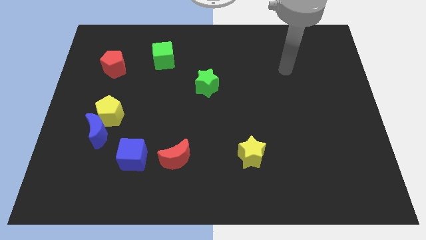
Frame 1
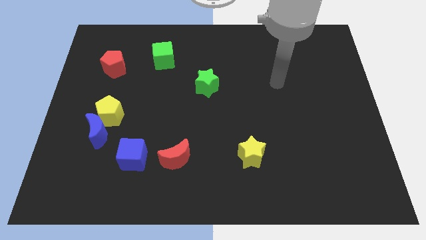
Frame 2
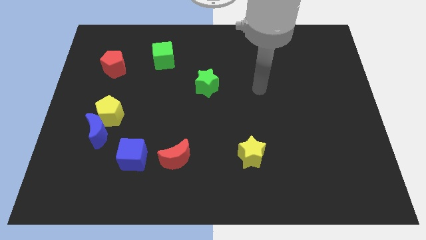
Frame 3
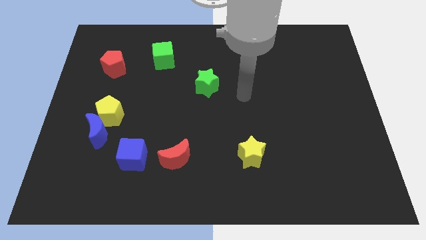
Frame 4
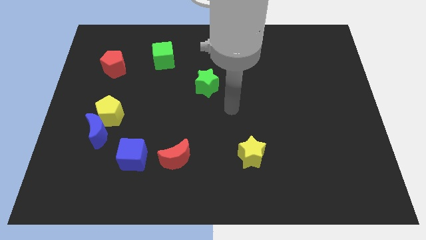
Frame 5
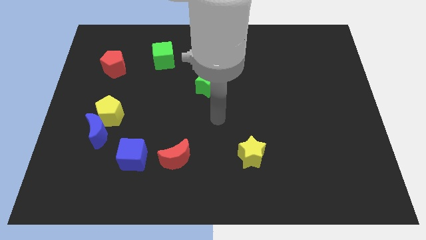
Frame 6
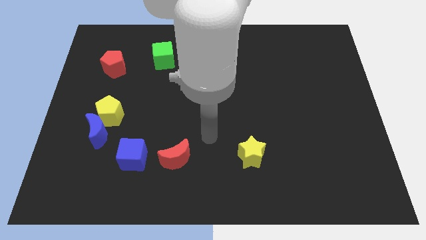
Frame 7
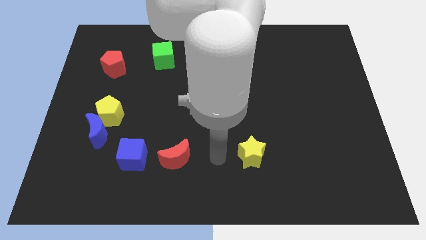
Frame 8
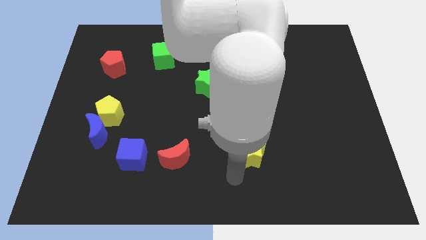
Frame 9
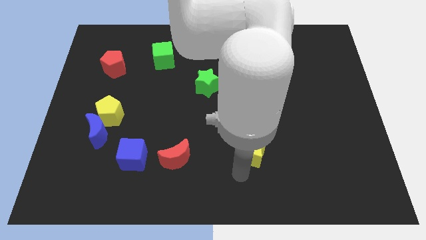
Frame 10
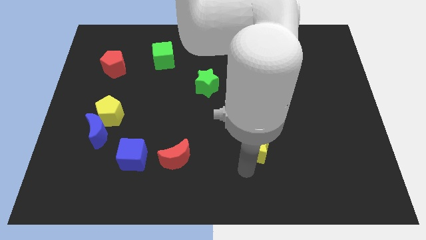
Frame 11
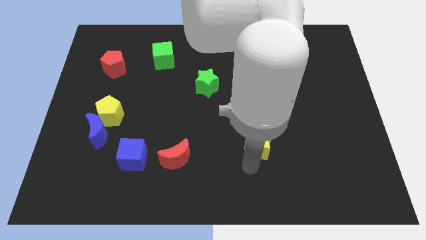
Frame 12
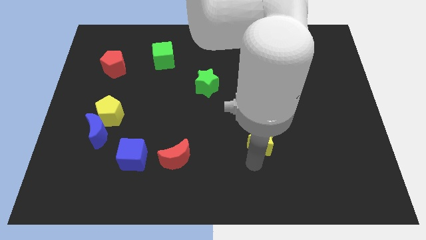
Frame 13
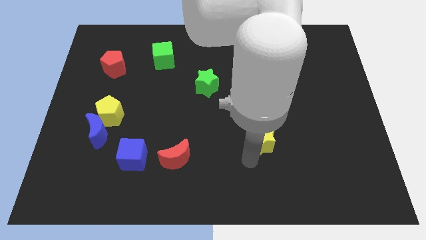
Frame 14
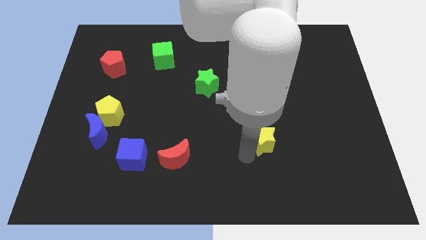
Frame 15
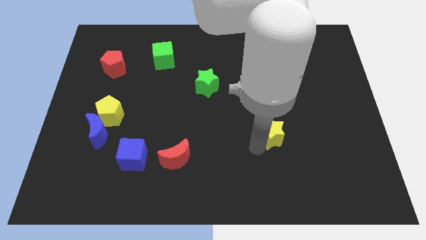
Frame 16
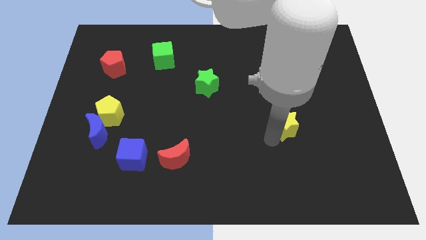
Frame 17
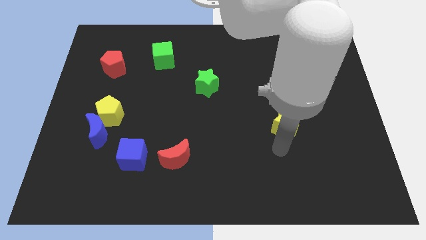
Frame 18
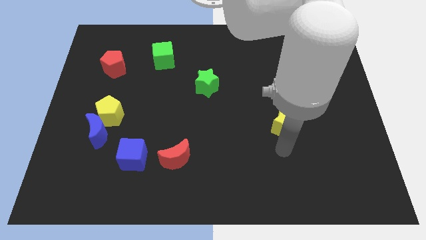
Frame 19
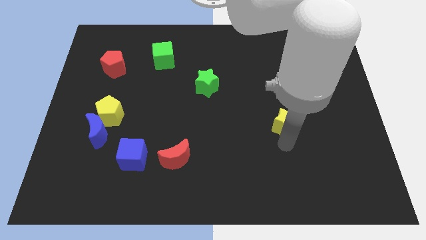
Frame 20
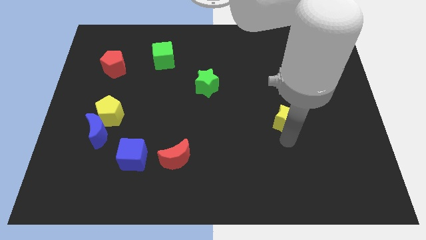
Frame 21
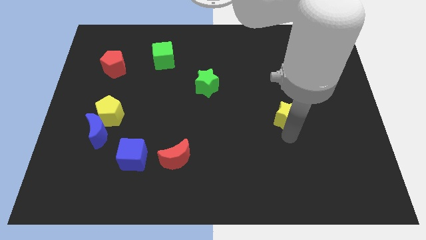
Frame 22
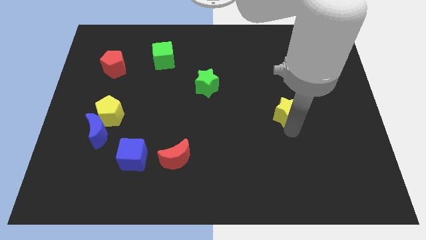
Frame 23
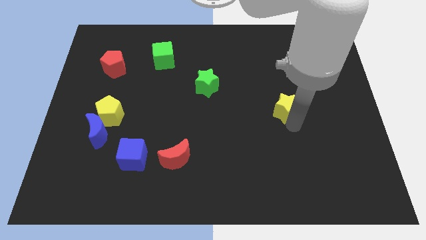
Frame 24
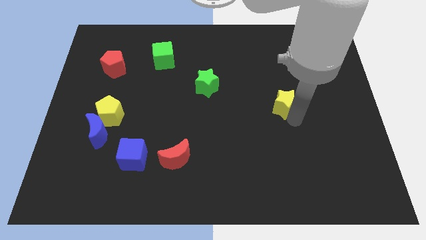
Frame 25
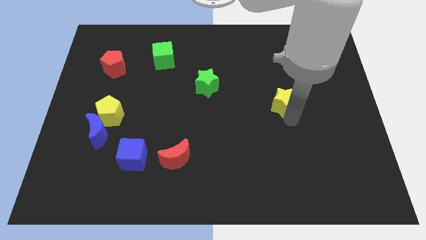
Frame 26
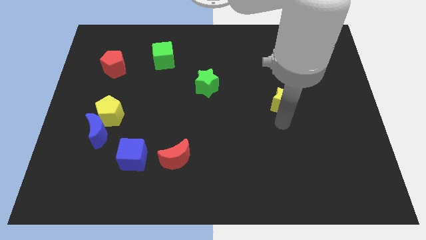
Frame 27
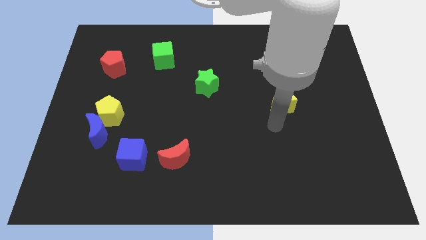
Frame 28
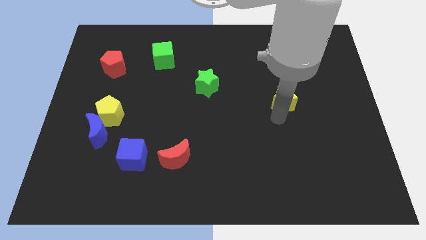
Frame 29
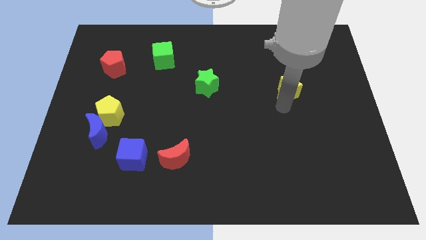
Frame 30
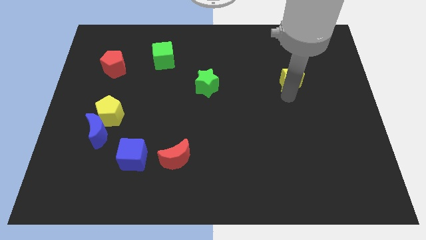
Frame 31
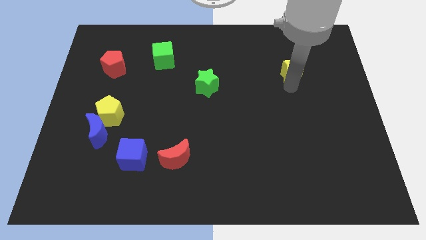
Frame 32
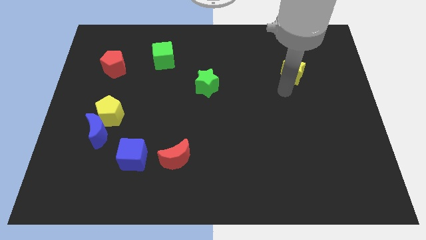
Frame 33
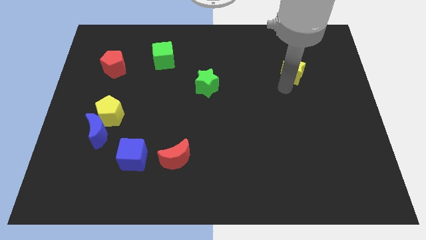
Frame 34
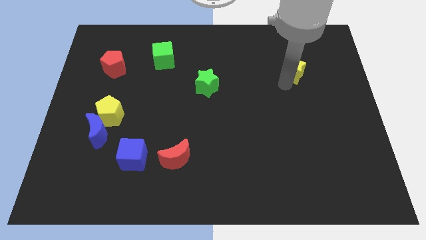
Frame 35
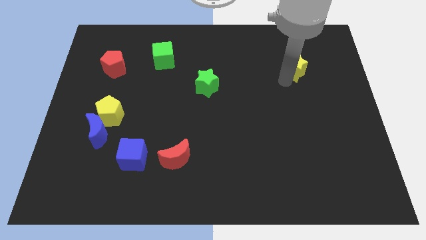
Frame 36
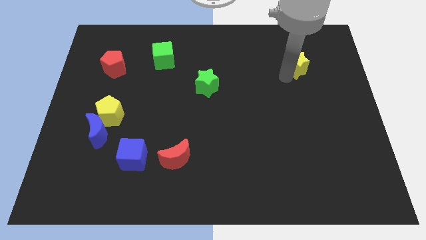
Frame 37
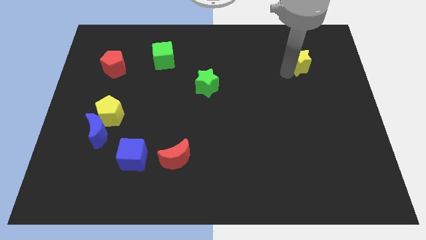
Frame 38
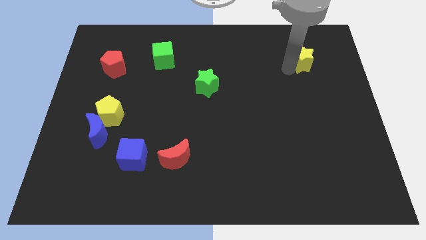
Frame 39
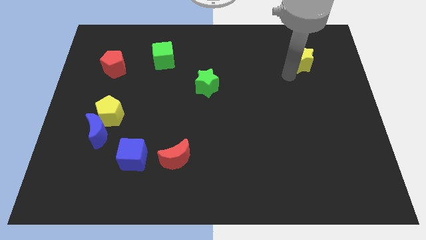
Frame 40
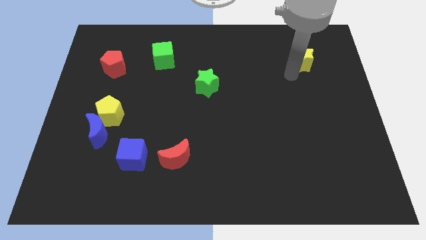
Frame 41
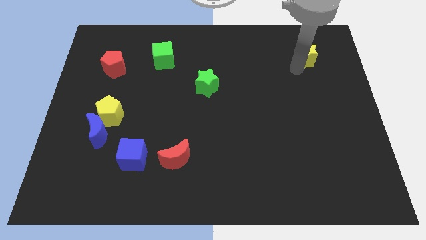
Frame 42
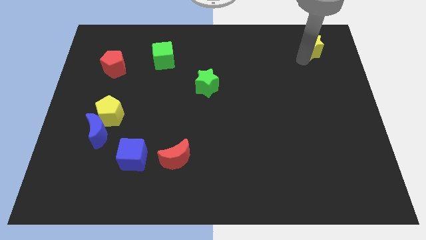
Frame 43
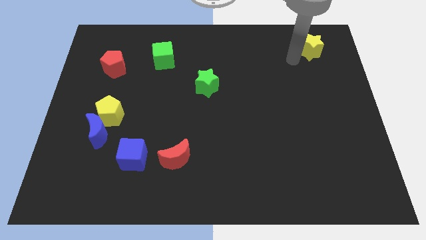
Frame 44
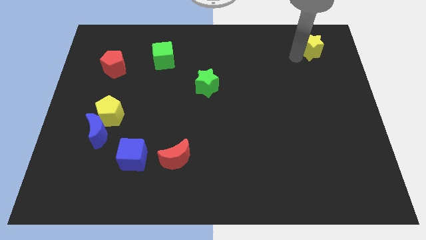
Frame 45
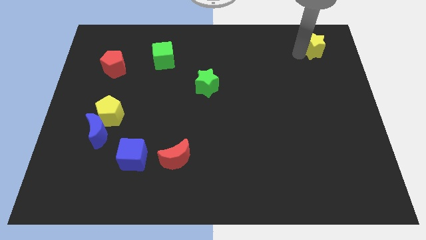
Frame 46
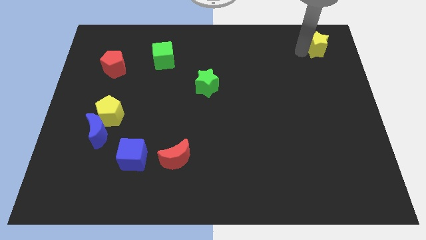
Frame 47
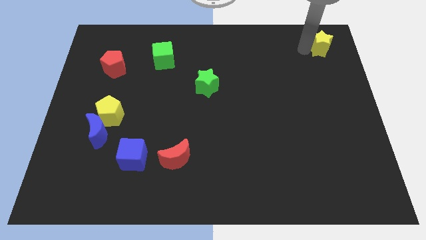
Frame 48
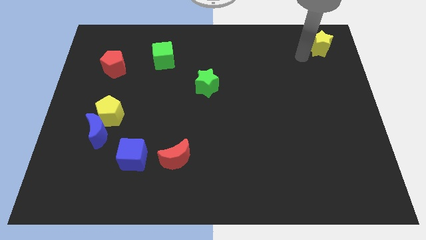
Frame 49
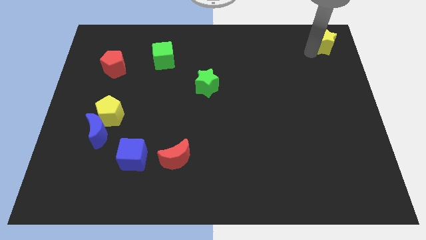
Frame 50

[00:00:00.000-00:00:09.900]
slide the yellow star to the upper right corner

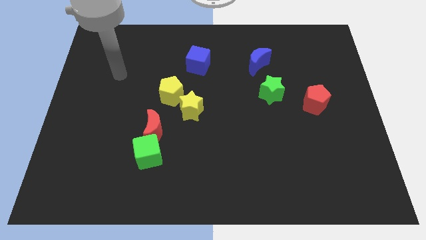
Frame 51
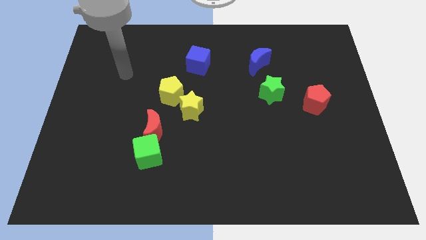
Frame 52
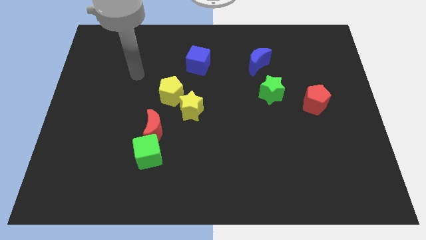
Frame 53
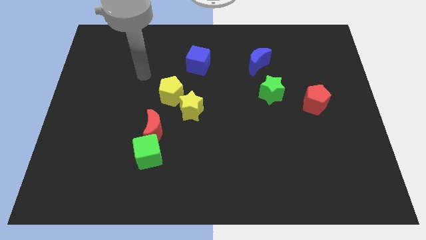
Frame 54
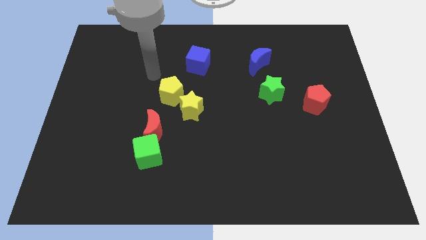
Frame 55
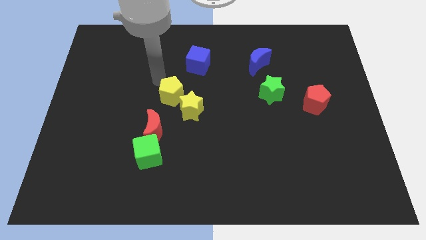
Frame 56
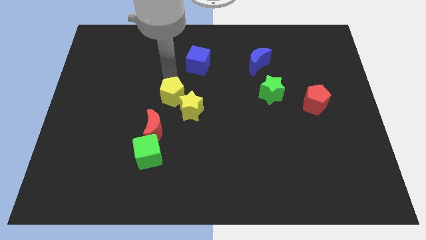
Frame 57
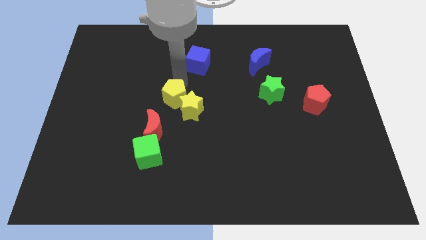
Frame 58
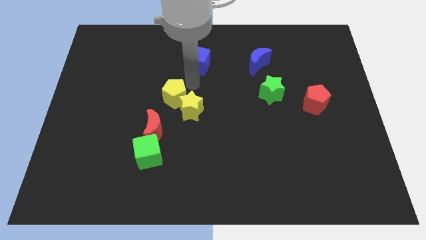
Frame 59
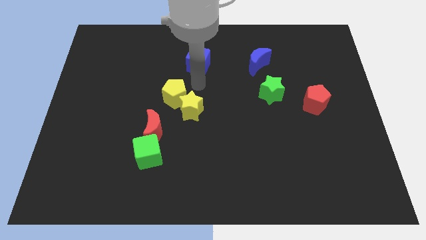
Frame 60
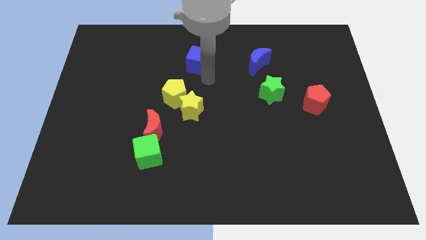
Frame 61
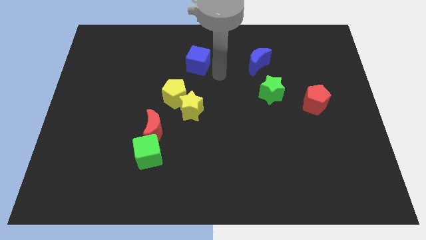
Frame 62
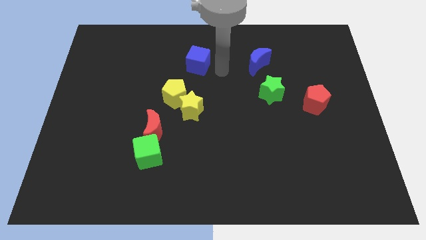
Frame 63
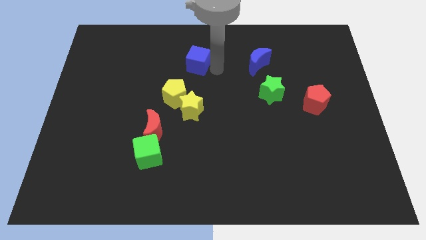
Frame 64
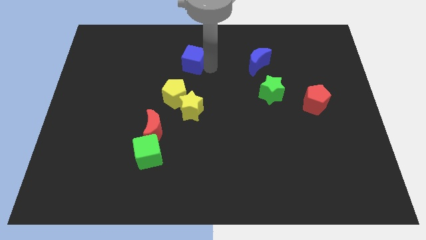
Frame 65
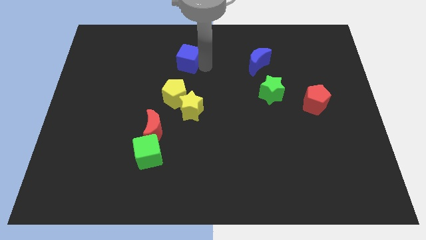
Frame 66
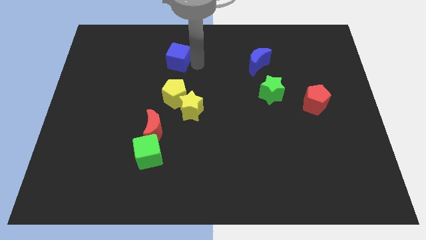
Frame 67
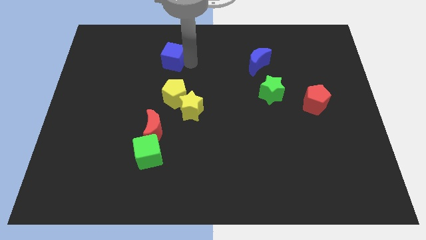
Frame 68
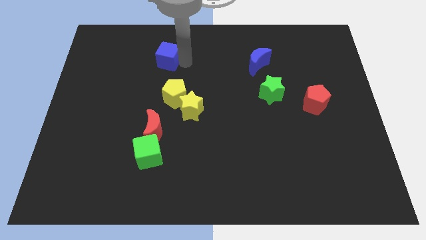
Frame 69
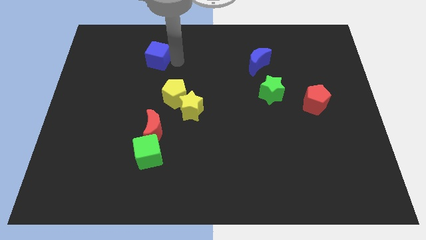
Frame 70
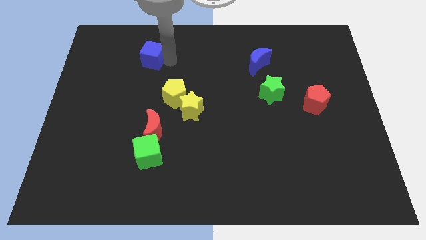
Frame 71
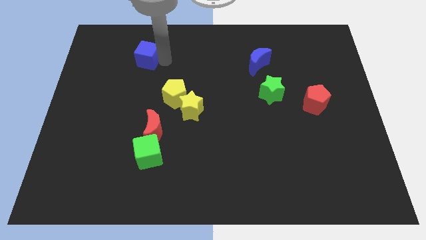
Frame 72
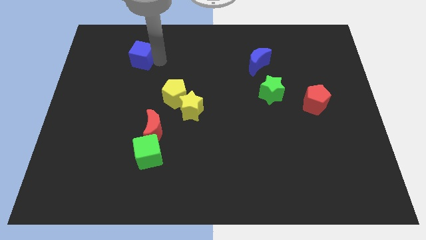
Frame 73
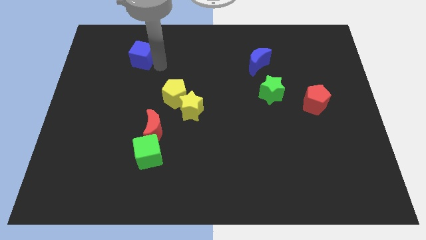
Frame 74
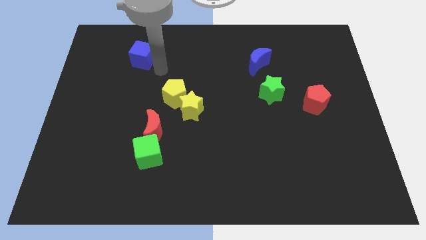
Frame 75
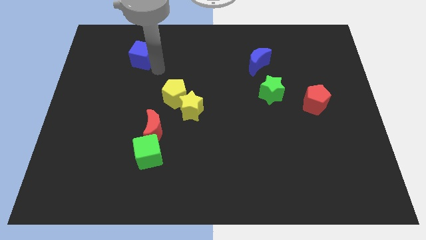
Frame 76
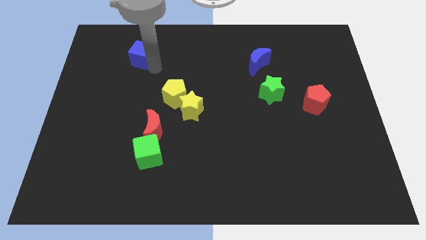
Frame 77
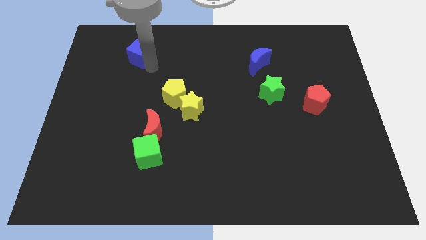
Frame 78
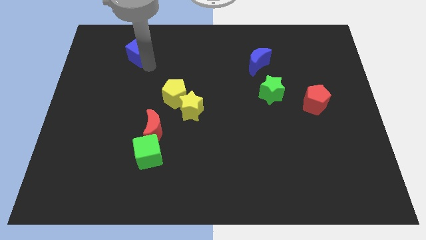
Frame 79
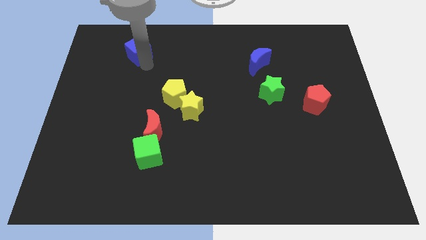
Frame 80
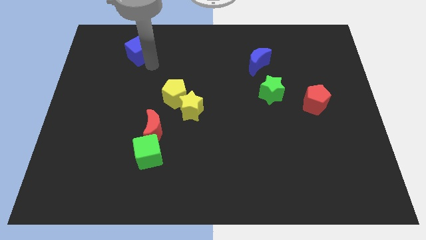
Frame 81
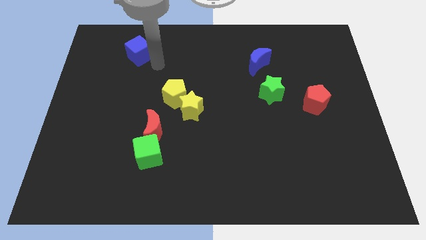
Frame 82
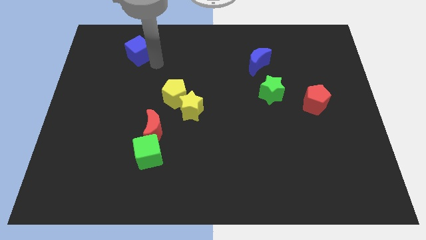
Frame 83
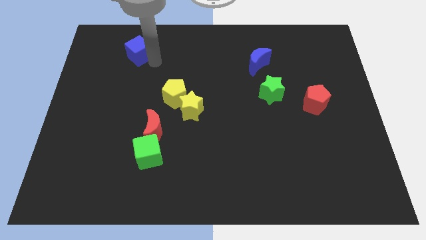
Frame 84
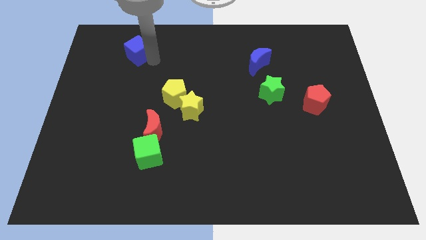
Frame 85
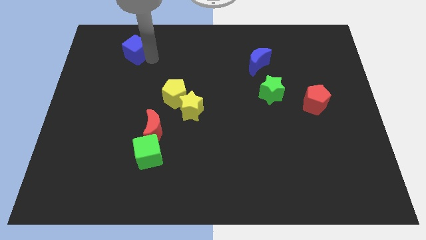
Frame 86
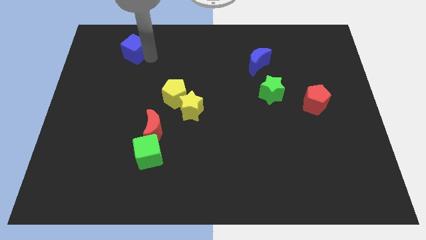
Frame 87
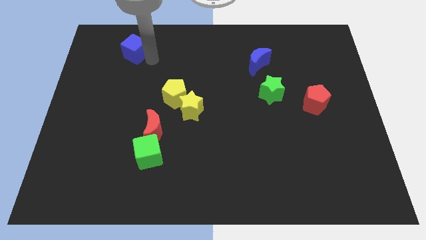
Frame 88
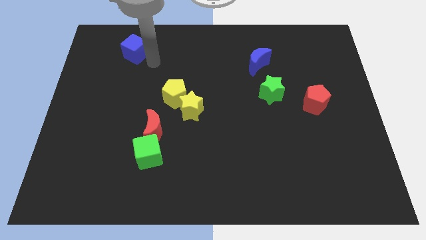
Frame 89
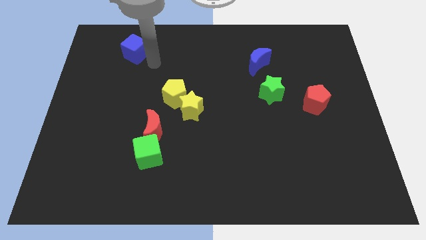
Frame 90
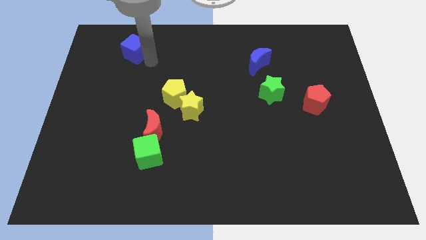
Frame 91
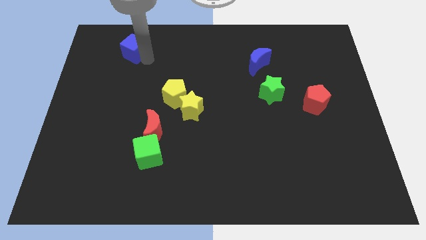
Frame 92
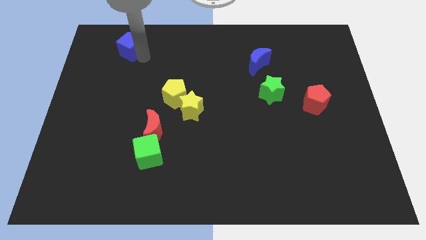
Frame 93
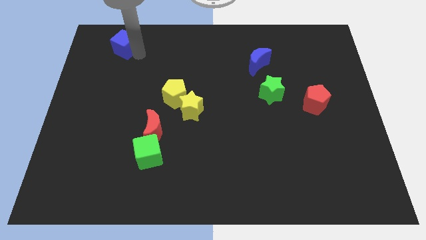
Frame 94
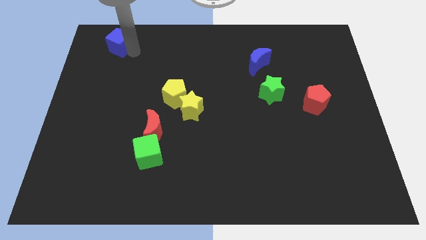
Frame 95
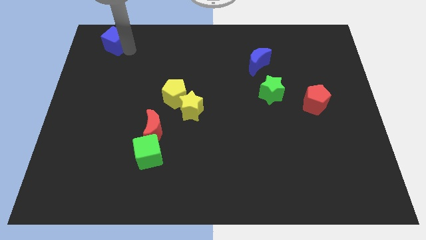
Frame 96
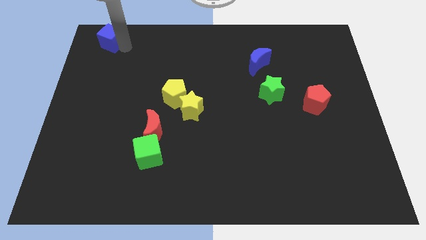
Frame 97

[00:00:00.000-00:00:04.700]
move the blue cube to the upper left corner
